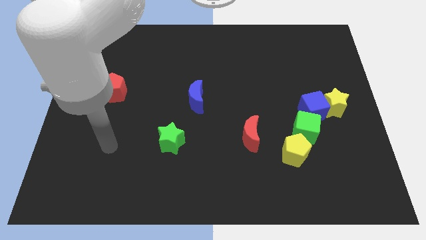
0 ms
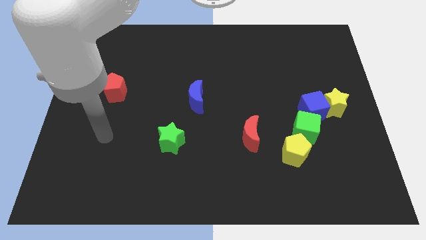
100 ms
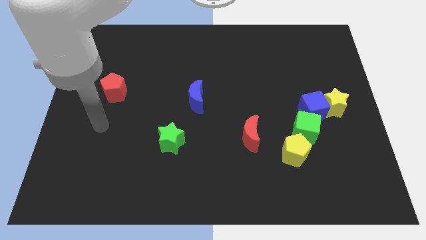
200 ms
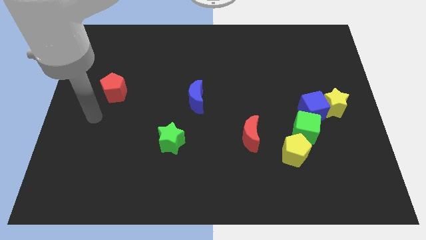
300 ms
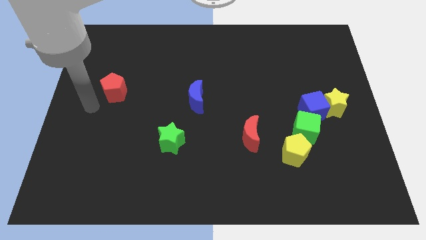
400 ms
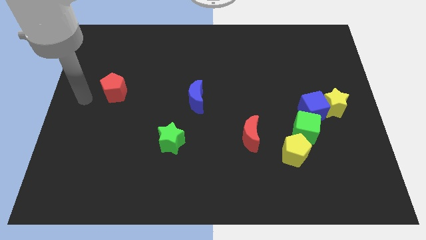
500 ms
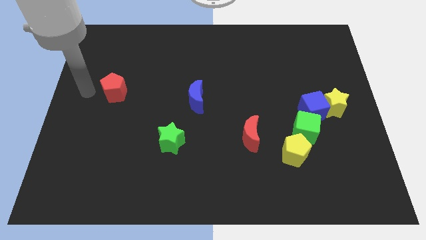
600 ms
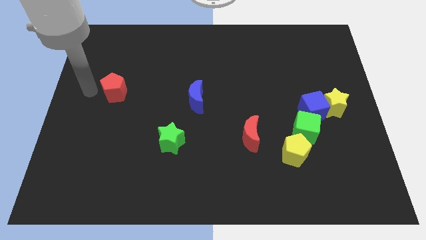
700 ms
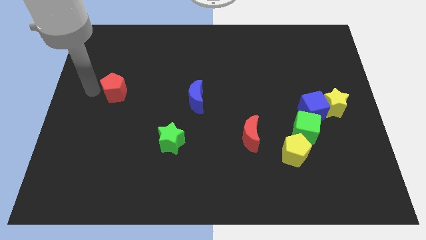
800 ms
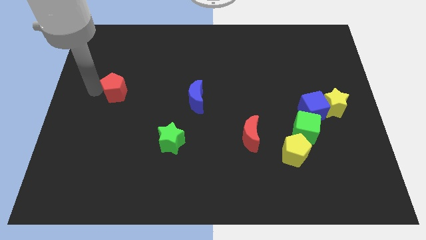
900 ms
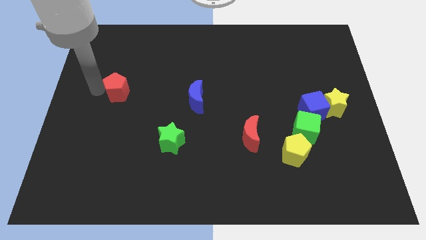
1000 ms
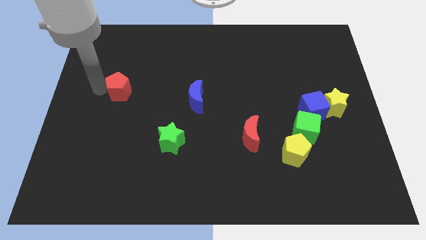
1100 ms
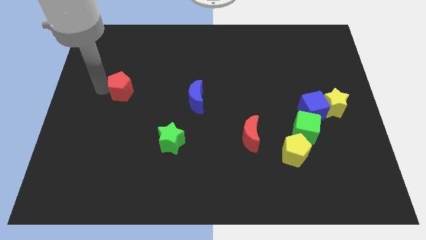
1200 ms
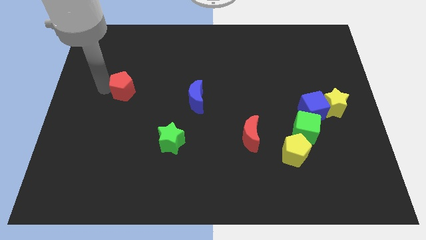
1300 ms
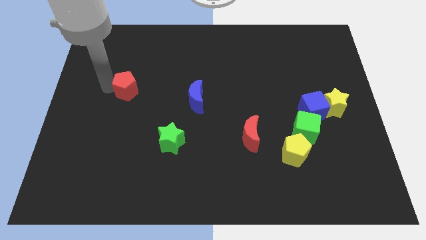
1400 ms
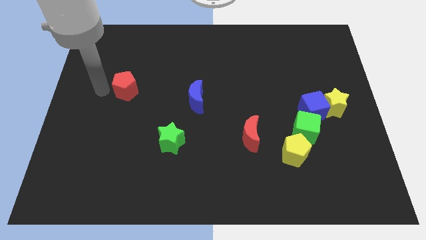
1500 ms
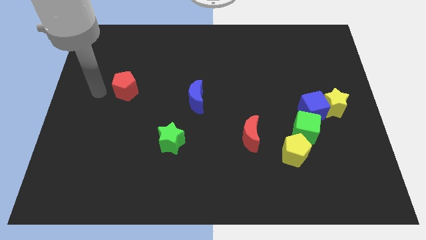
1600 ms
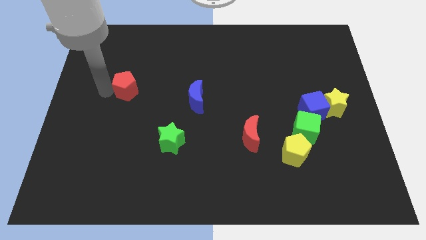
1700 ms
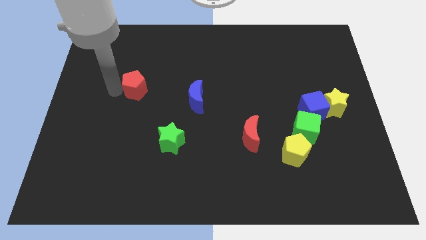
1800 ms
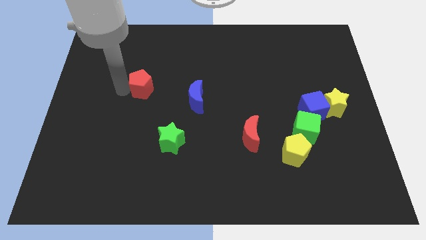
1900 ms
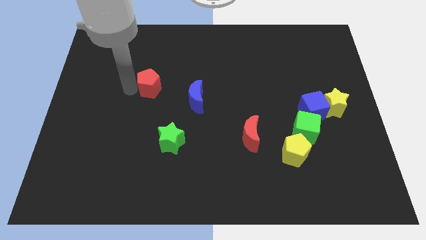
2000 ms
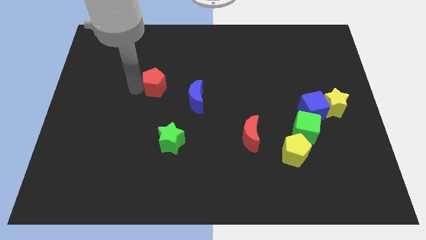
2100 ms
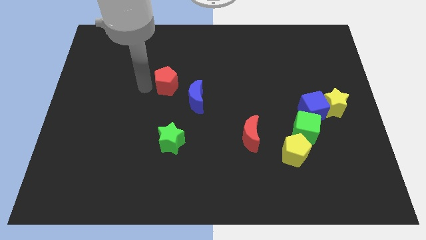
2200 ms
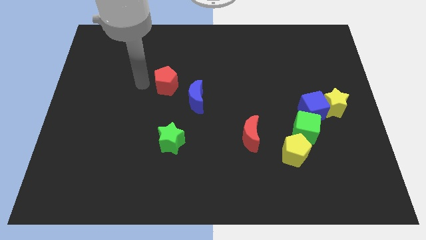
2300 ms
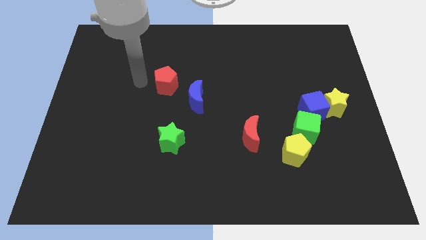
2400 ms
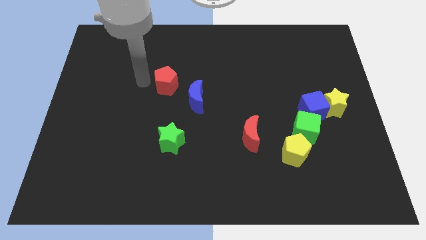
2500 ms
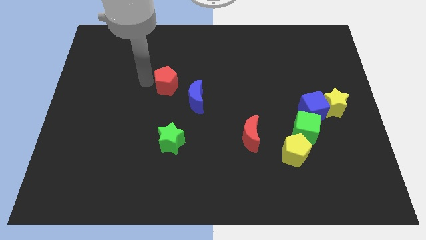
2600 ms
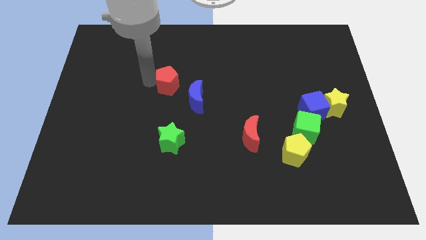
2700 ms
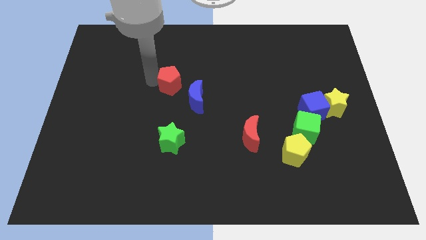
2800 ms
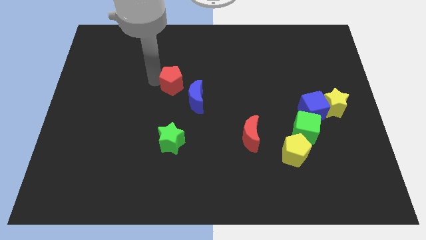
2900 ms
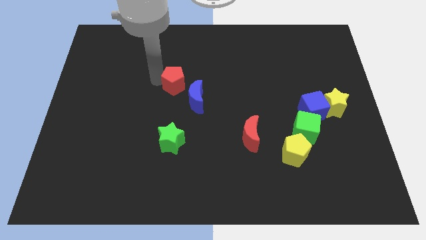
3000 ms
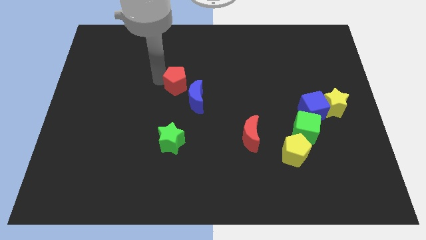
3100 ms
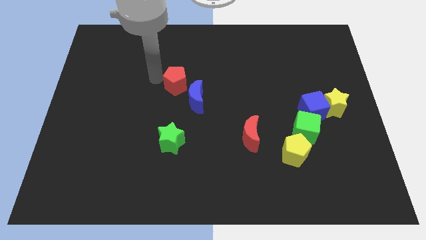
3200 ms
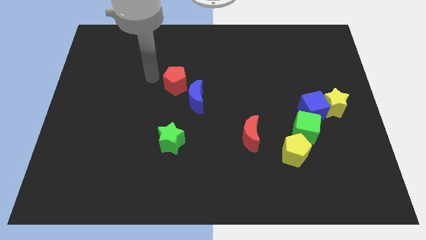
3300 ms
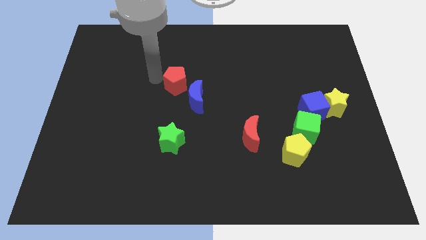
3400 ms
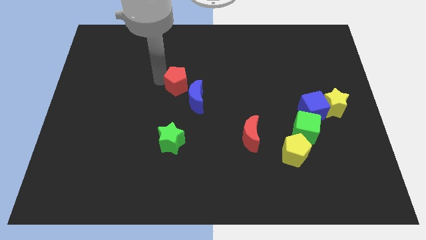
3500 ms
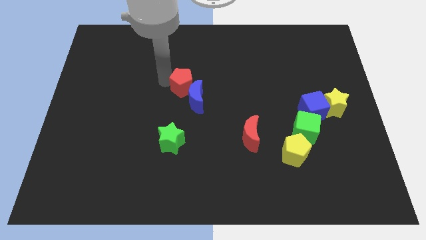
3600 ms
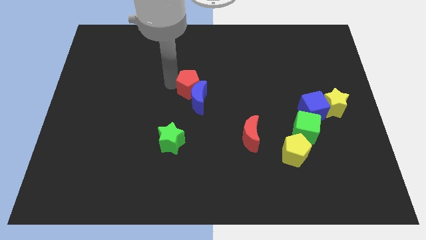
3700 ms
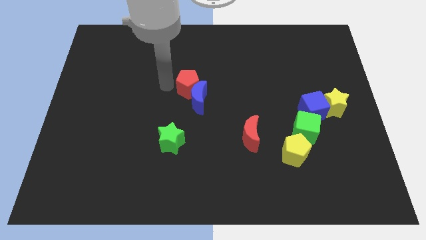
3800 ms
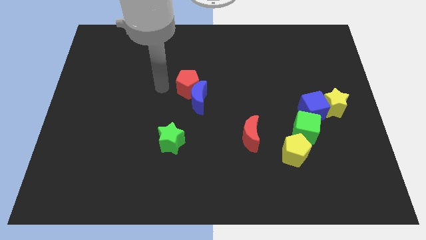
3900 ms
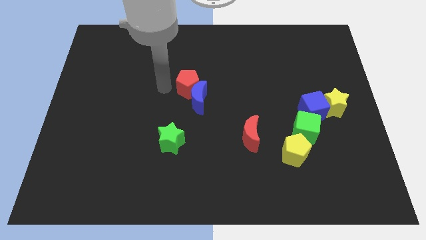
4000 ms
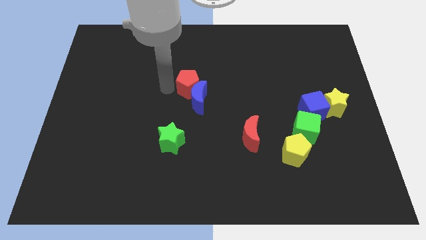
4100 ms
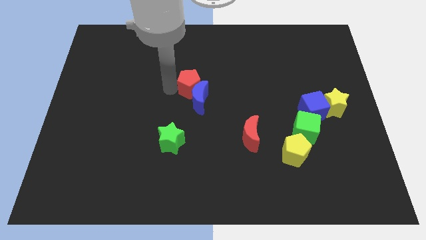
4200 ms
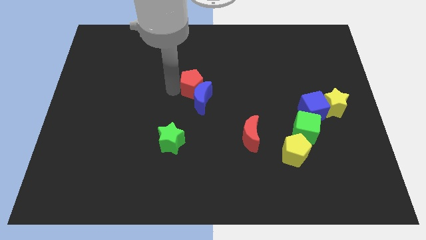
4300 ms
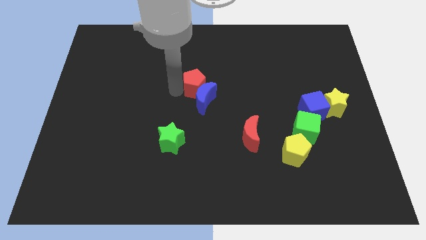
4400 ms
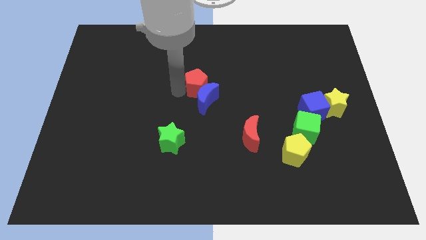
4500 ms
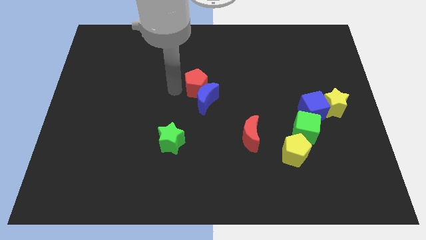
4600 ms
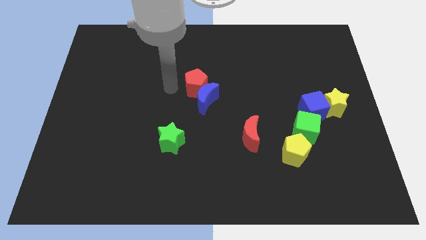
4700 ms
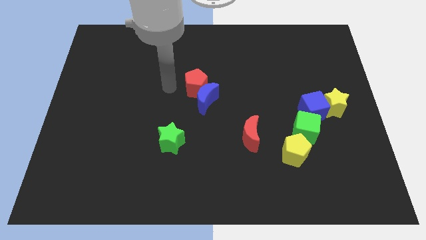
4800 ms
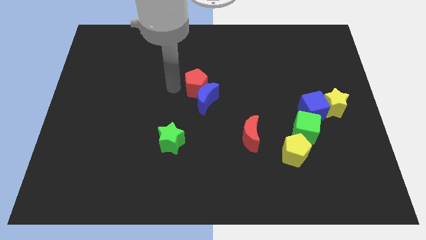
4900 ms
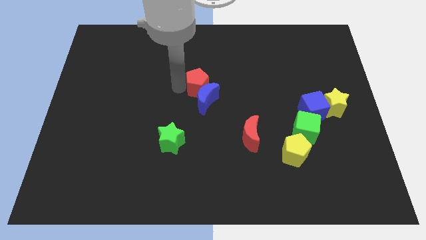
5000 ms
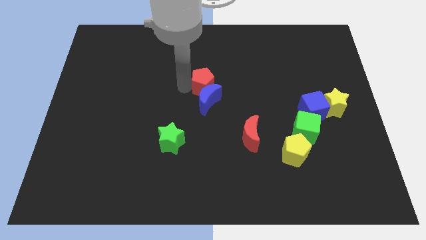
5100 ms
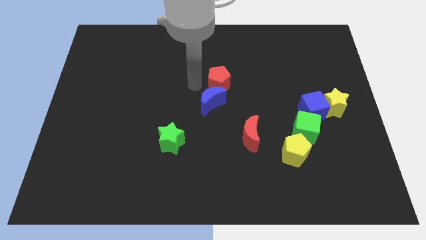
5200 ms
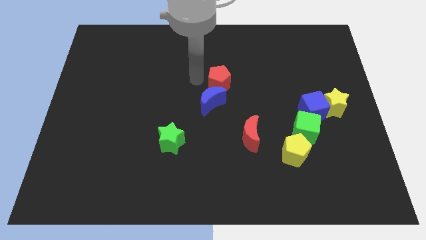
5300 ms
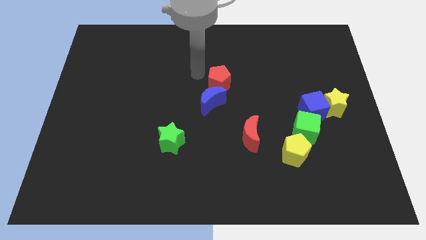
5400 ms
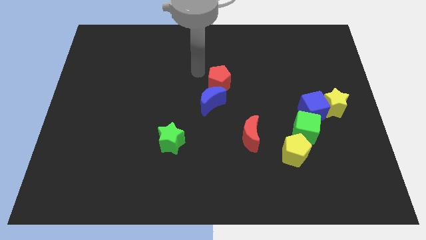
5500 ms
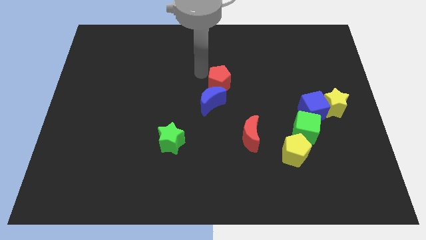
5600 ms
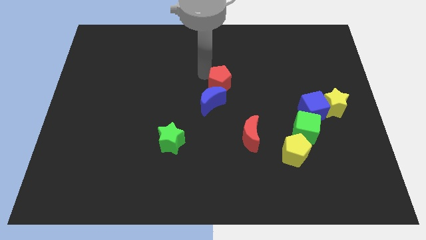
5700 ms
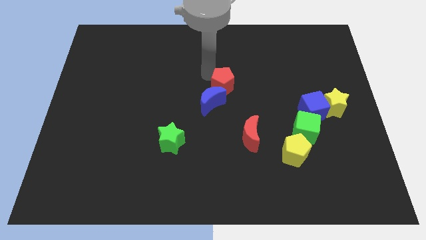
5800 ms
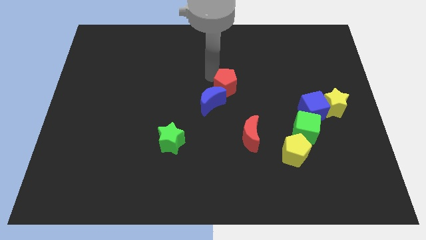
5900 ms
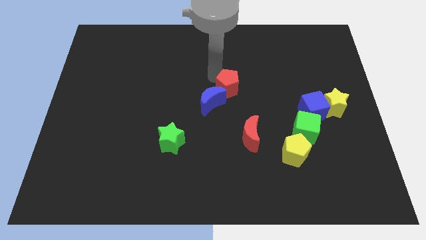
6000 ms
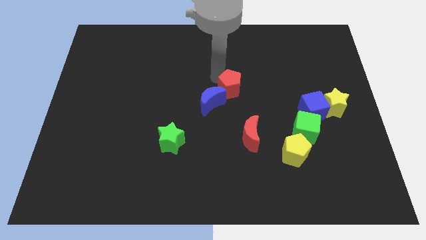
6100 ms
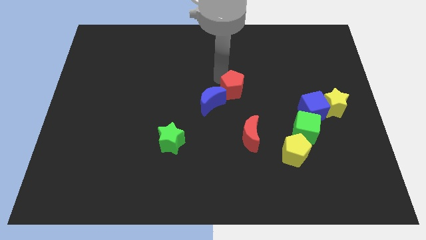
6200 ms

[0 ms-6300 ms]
slide the red pentagon to the top of the red moon

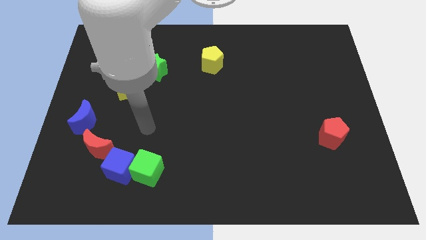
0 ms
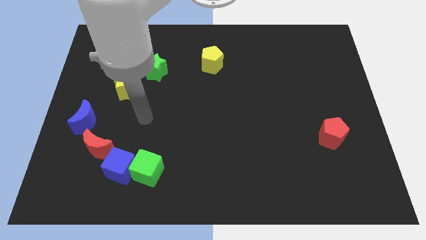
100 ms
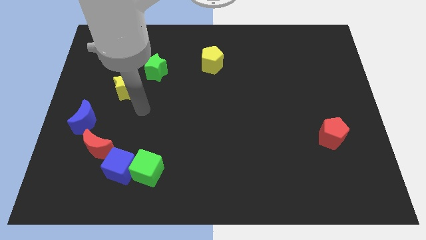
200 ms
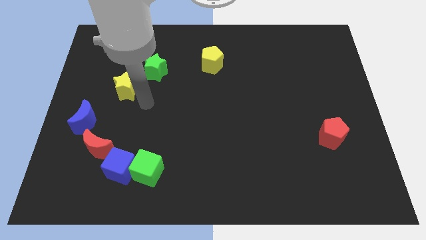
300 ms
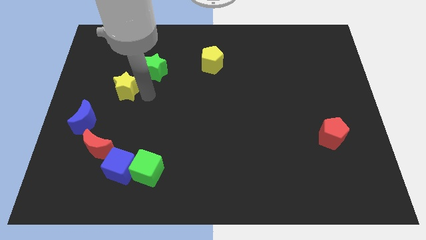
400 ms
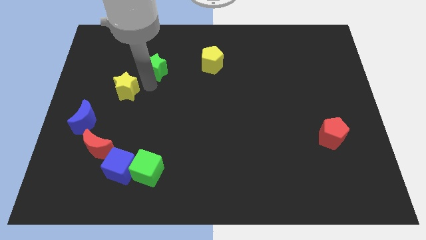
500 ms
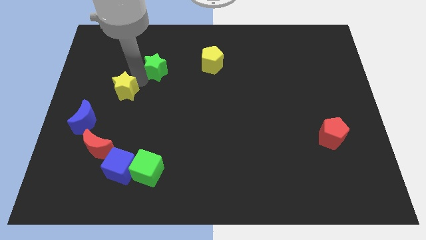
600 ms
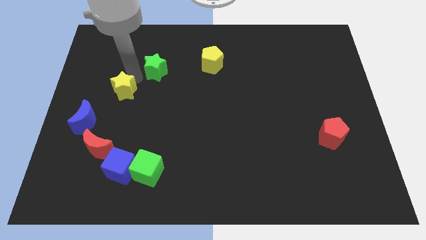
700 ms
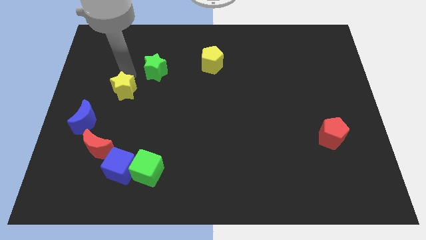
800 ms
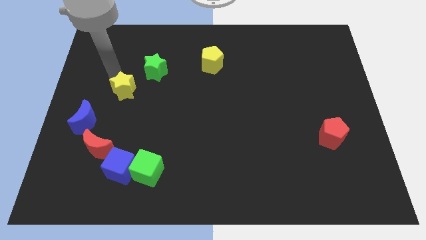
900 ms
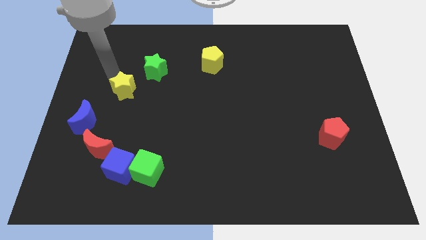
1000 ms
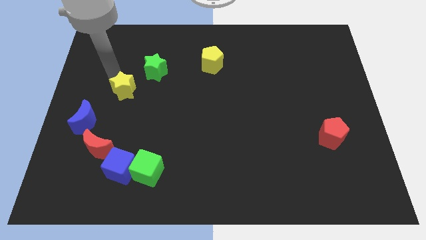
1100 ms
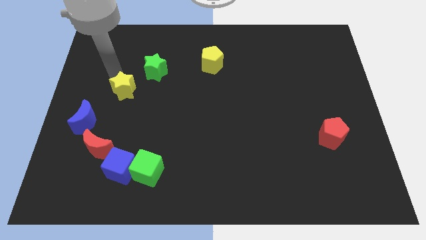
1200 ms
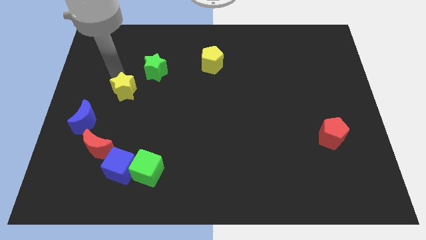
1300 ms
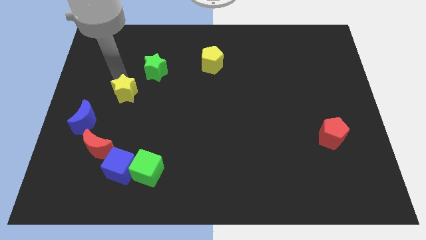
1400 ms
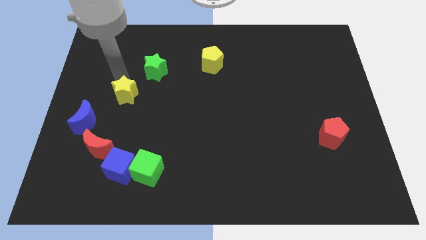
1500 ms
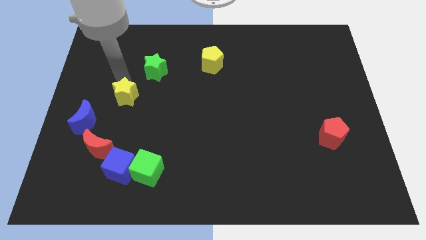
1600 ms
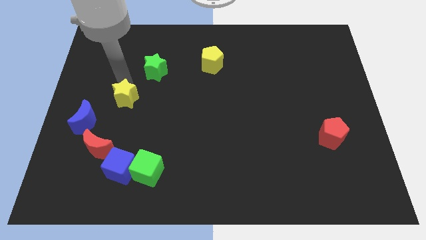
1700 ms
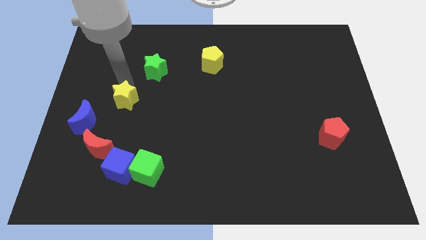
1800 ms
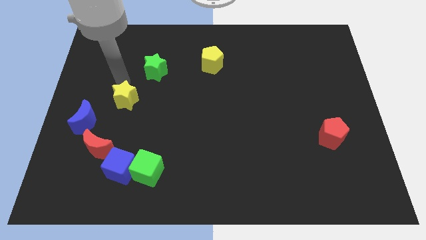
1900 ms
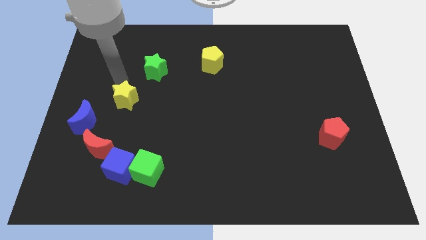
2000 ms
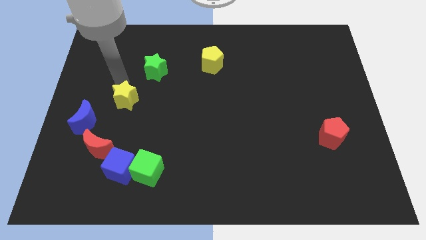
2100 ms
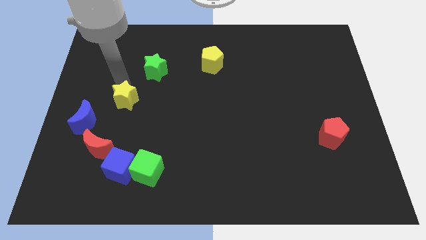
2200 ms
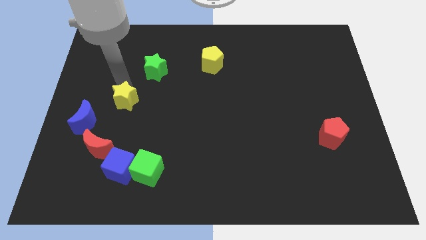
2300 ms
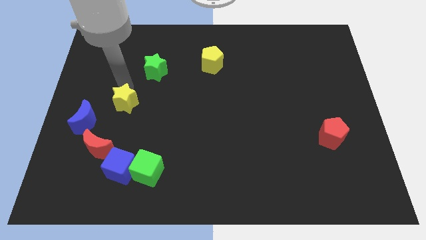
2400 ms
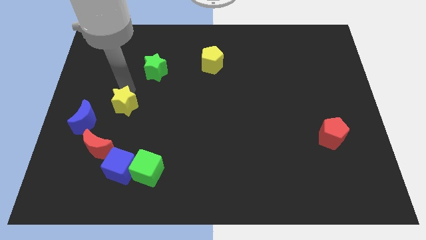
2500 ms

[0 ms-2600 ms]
push the yellow star to the right of the blue moon
